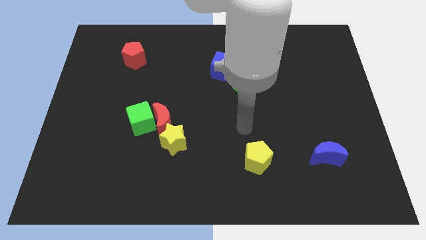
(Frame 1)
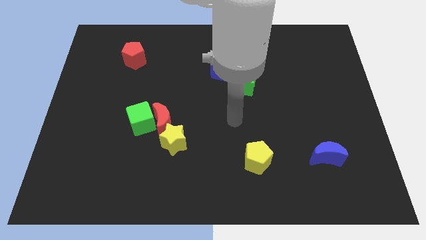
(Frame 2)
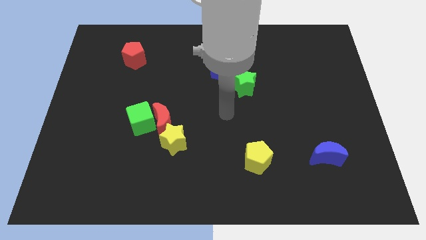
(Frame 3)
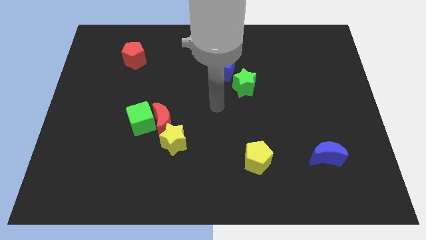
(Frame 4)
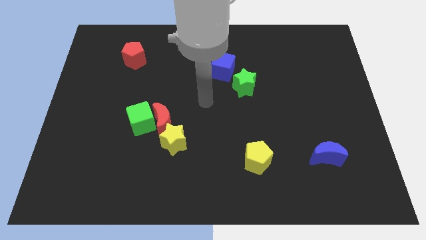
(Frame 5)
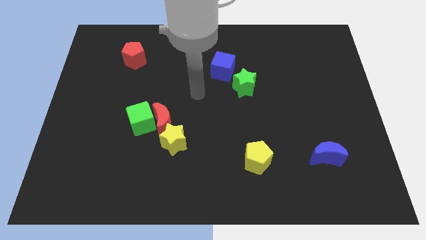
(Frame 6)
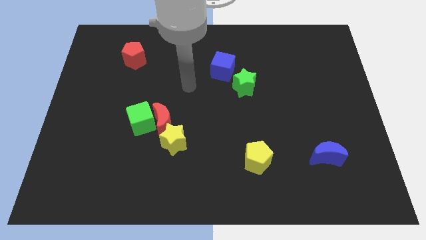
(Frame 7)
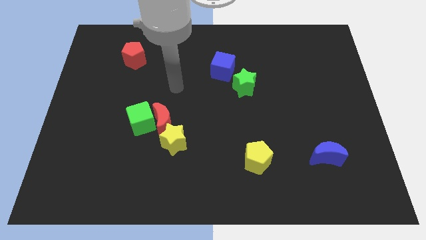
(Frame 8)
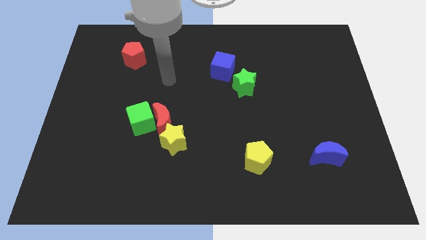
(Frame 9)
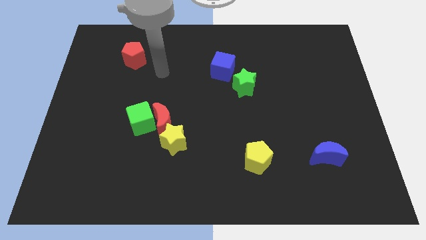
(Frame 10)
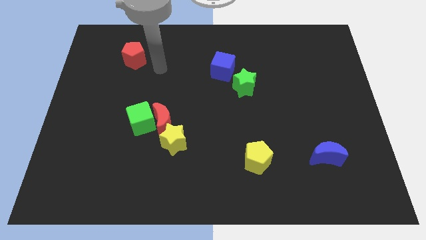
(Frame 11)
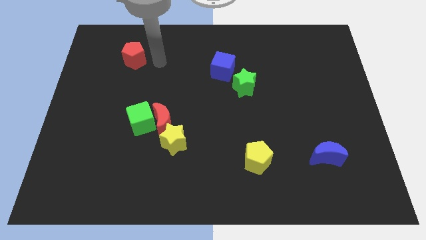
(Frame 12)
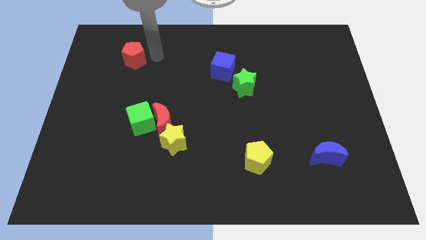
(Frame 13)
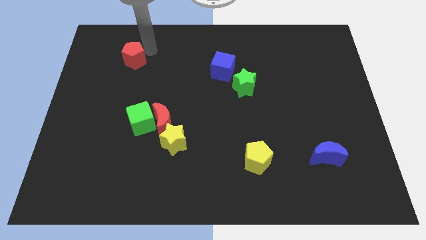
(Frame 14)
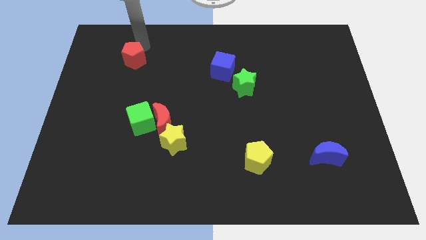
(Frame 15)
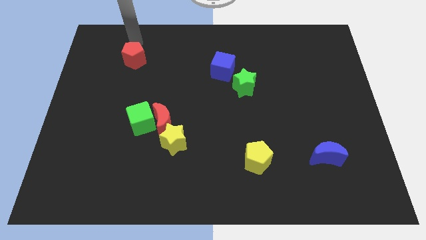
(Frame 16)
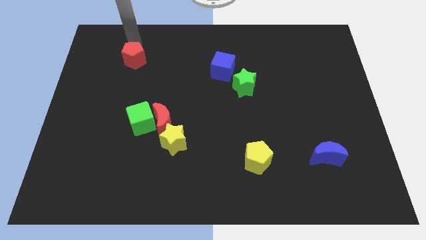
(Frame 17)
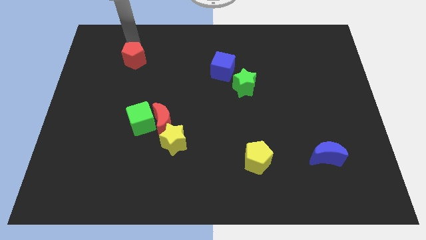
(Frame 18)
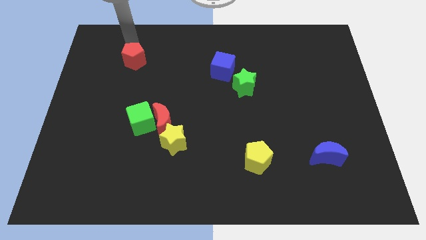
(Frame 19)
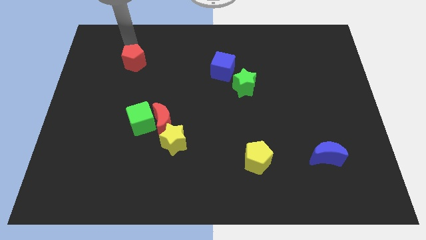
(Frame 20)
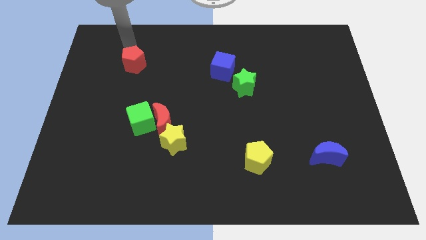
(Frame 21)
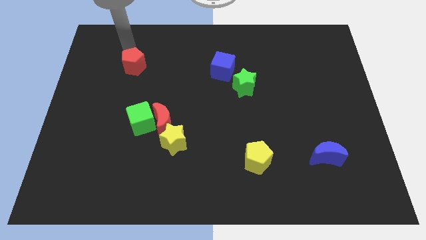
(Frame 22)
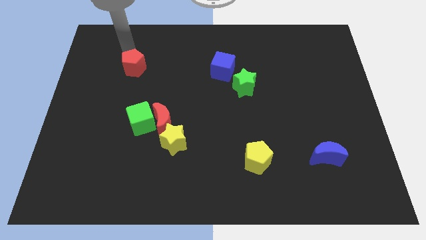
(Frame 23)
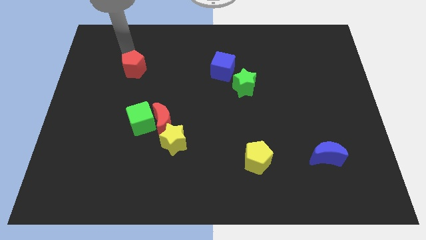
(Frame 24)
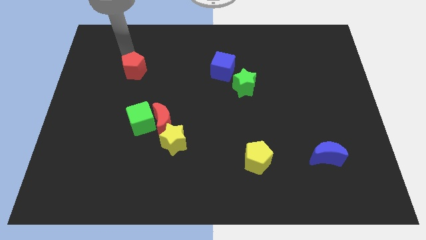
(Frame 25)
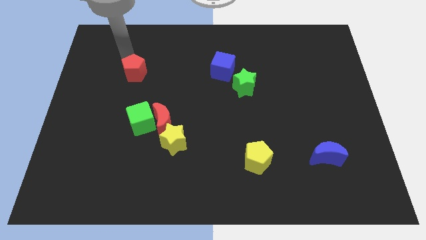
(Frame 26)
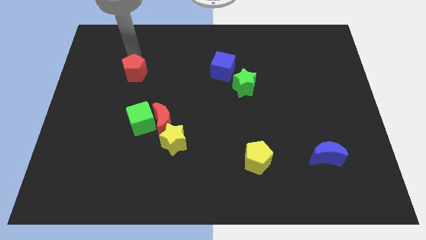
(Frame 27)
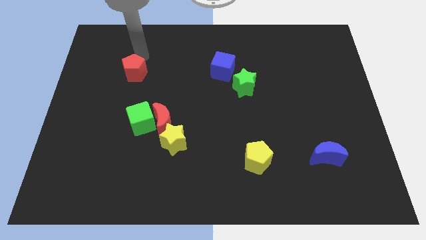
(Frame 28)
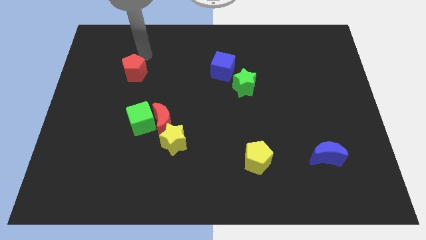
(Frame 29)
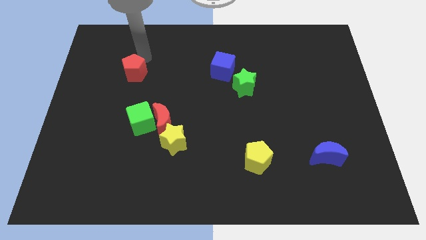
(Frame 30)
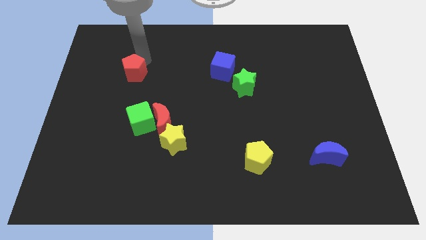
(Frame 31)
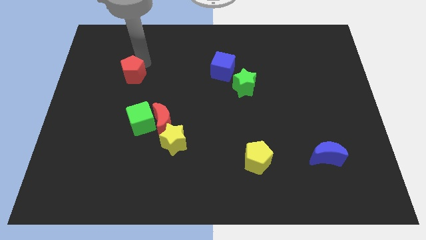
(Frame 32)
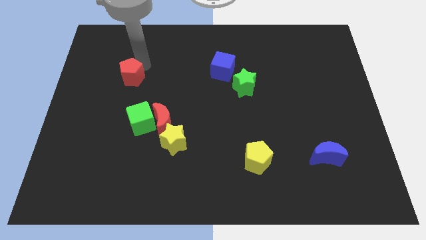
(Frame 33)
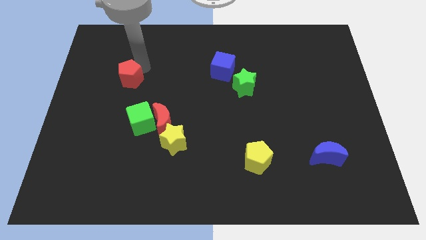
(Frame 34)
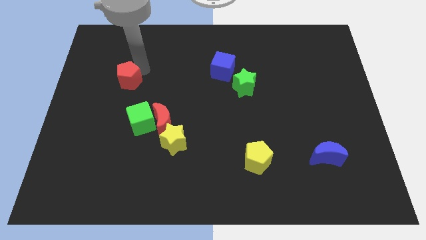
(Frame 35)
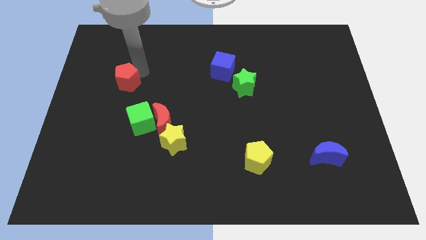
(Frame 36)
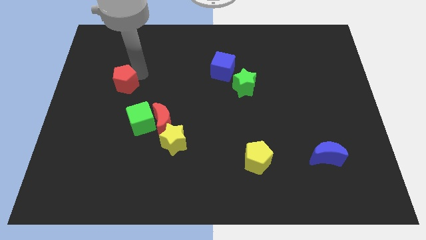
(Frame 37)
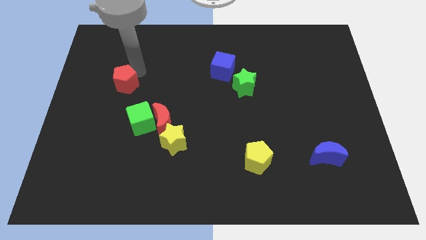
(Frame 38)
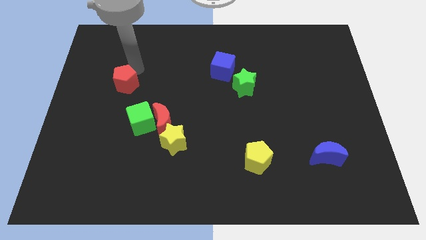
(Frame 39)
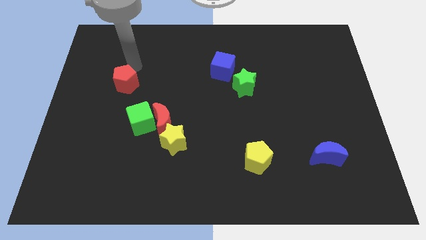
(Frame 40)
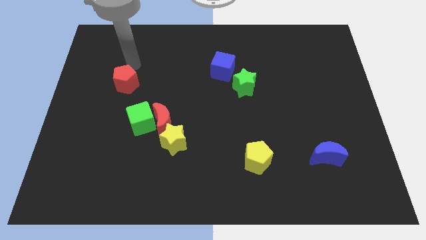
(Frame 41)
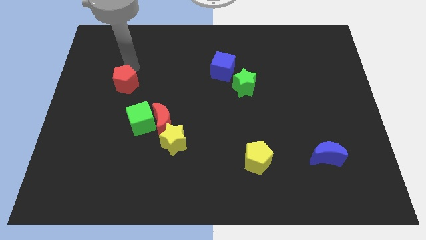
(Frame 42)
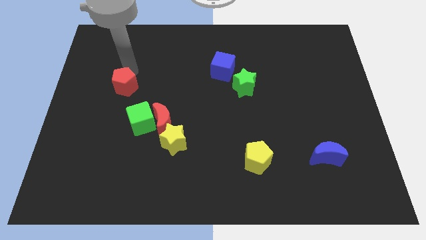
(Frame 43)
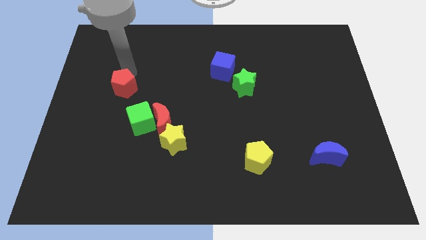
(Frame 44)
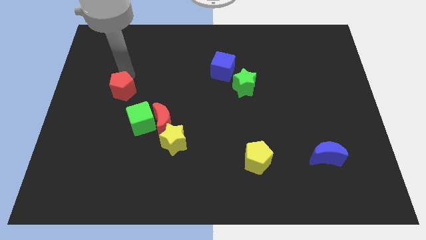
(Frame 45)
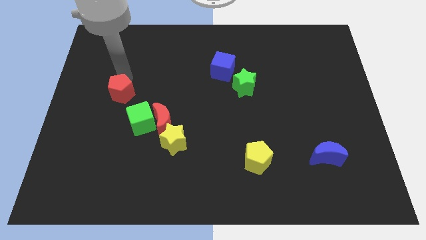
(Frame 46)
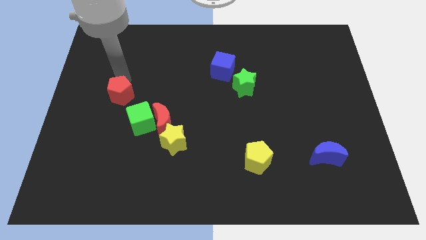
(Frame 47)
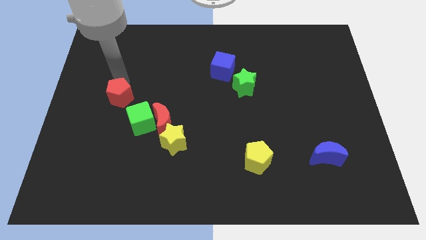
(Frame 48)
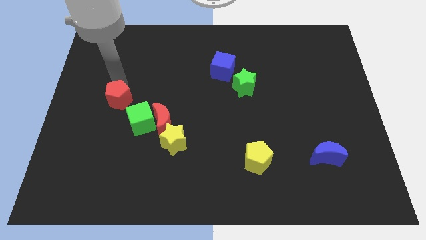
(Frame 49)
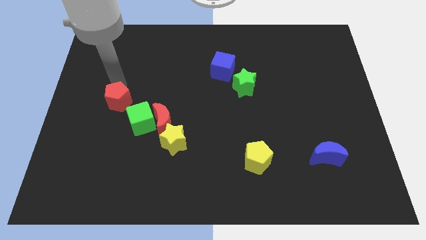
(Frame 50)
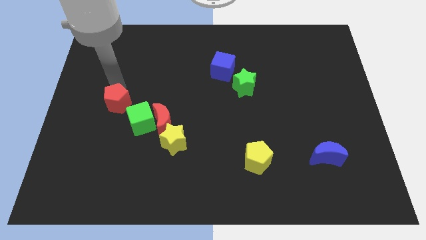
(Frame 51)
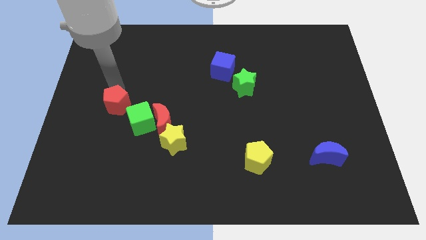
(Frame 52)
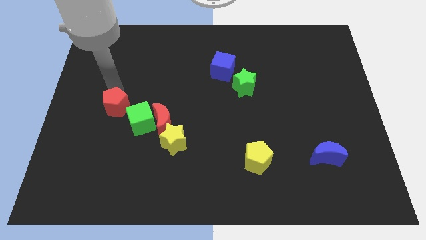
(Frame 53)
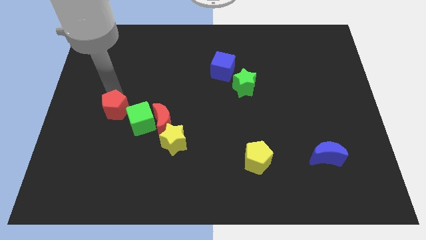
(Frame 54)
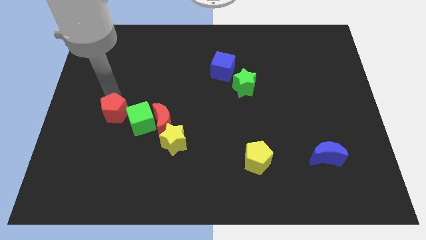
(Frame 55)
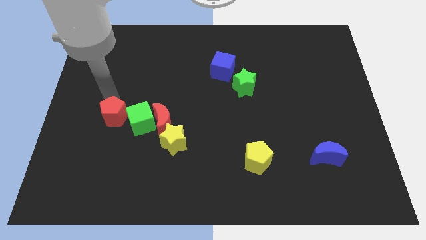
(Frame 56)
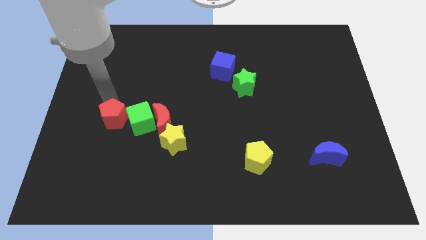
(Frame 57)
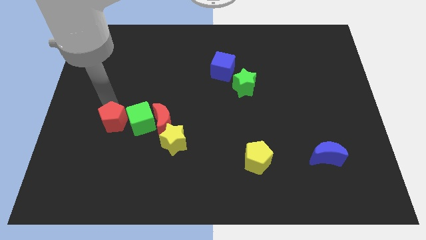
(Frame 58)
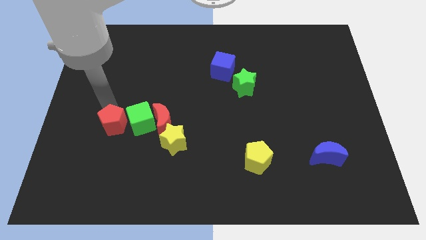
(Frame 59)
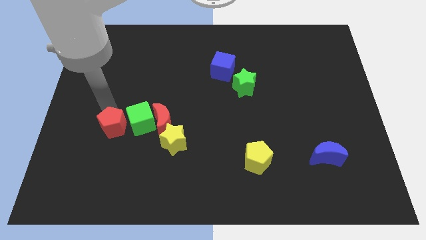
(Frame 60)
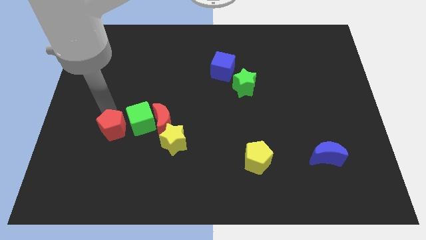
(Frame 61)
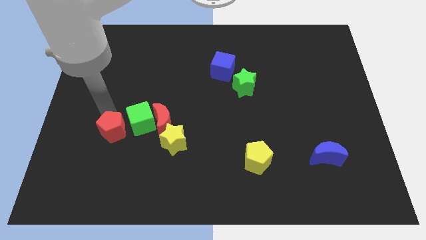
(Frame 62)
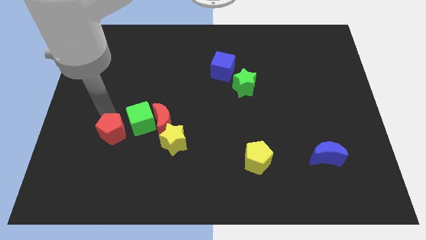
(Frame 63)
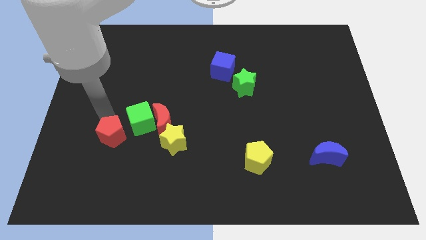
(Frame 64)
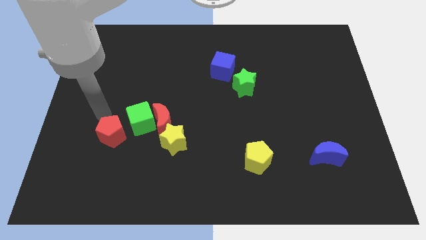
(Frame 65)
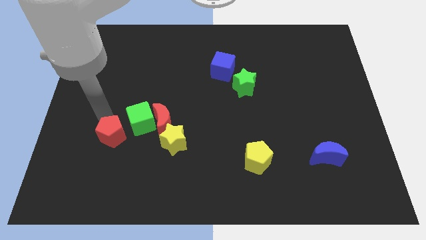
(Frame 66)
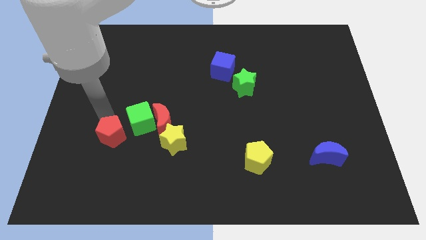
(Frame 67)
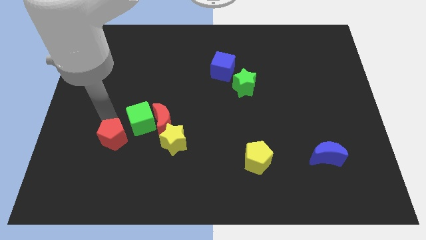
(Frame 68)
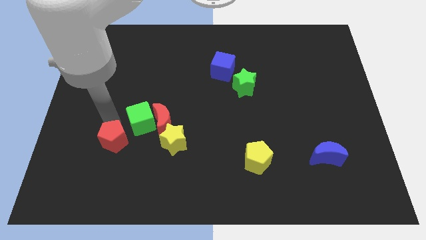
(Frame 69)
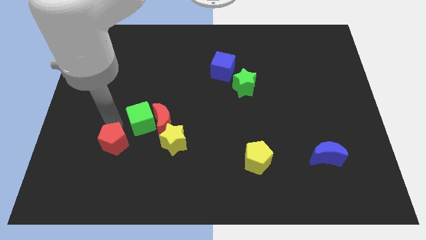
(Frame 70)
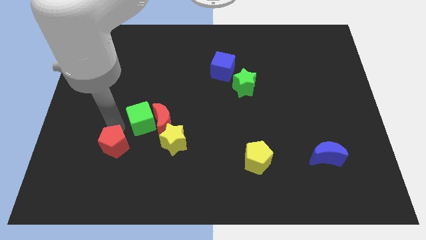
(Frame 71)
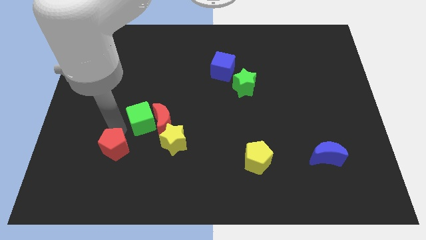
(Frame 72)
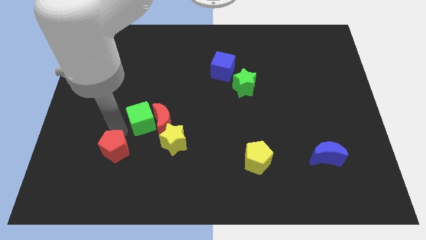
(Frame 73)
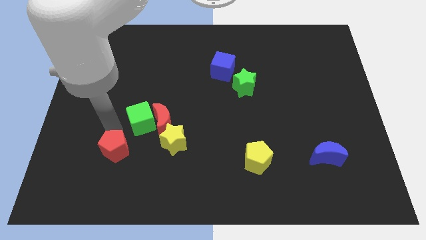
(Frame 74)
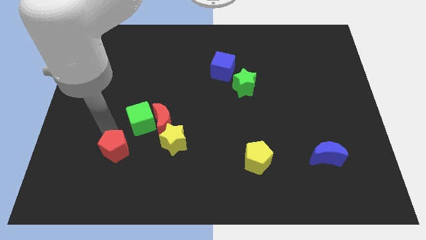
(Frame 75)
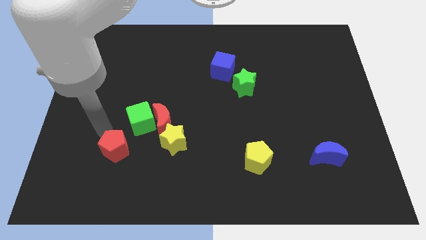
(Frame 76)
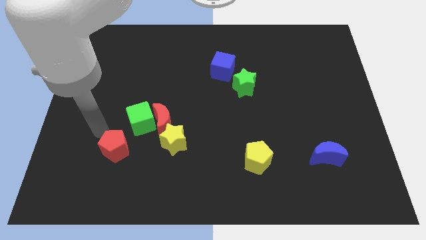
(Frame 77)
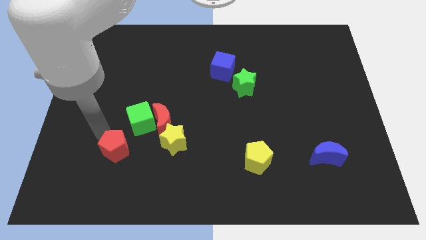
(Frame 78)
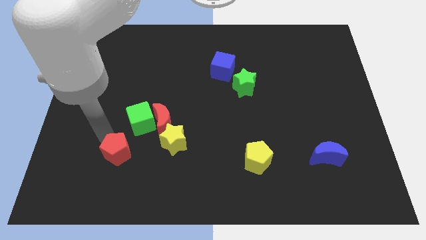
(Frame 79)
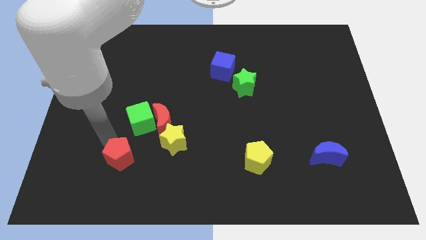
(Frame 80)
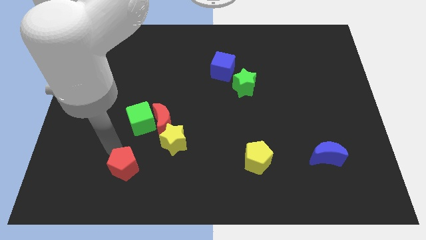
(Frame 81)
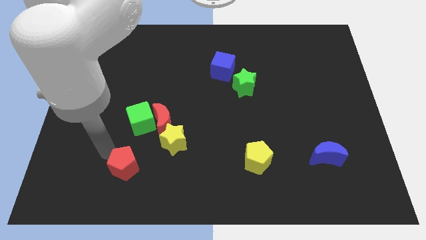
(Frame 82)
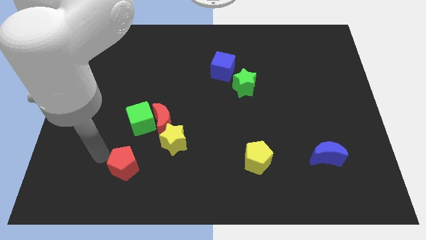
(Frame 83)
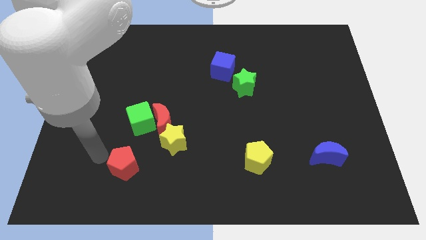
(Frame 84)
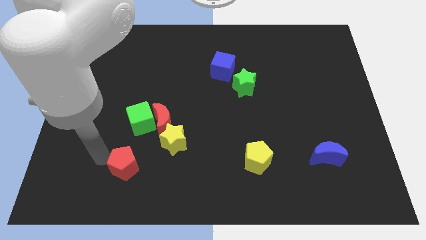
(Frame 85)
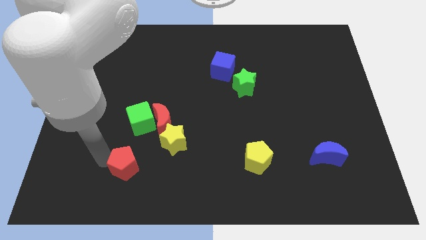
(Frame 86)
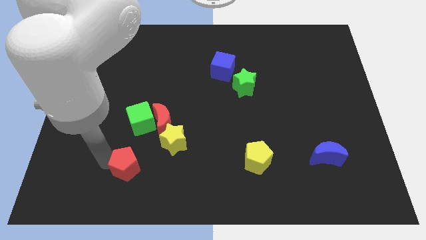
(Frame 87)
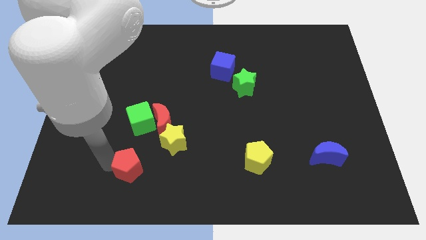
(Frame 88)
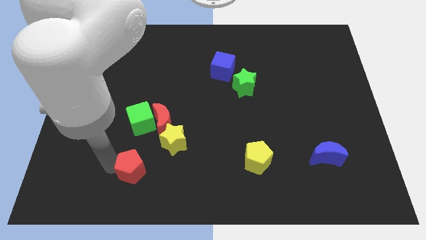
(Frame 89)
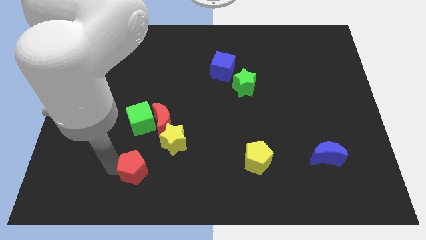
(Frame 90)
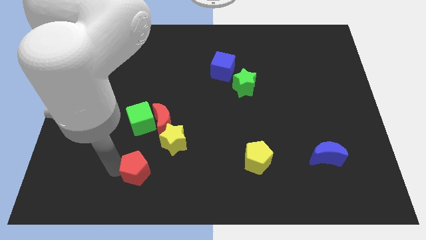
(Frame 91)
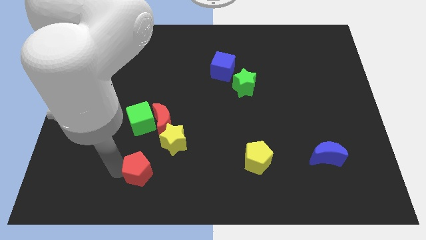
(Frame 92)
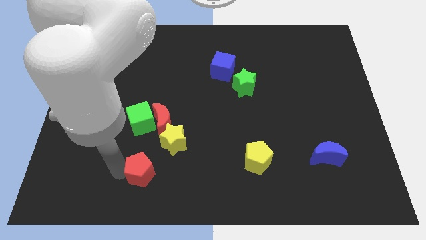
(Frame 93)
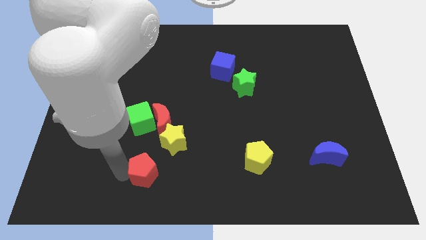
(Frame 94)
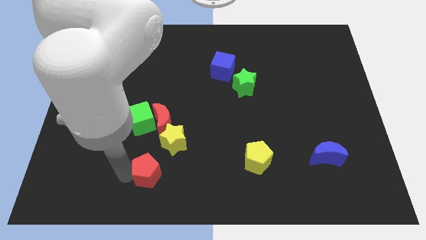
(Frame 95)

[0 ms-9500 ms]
slide the red pentagon below the yellow star
